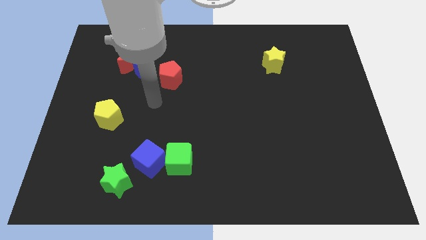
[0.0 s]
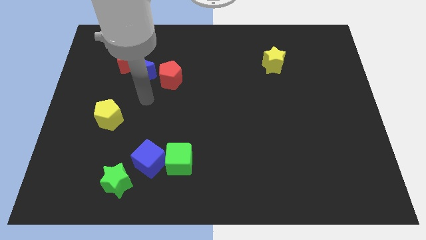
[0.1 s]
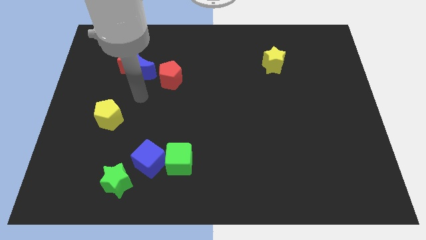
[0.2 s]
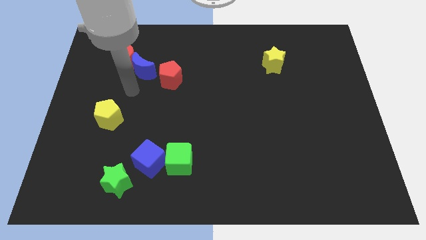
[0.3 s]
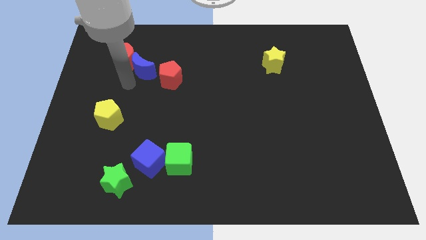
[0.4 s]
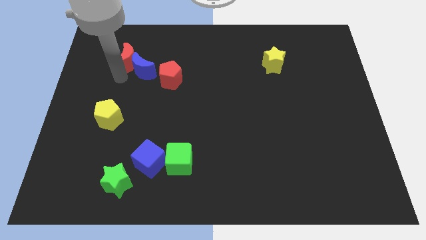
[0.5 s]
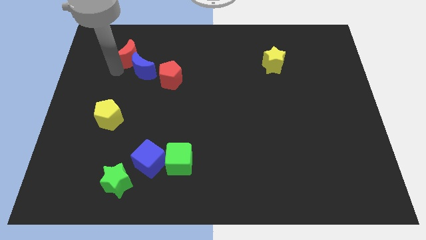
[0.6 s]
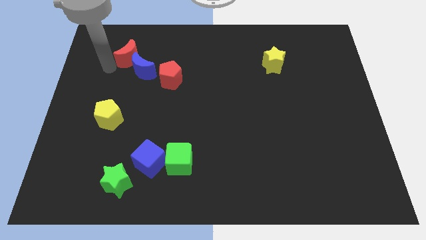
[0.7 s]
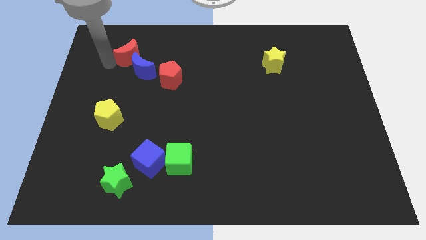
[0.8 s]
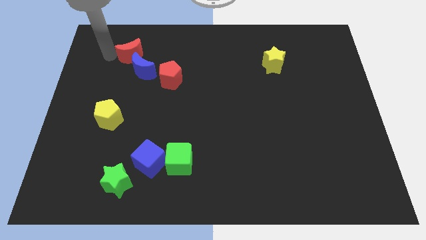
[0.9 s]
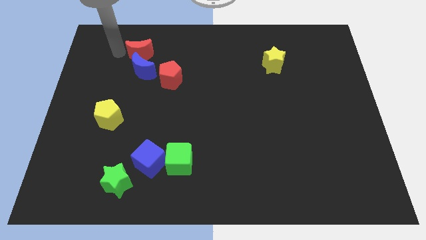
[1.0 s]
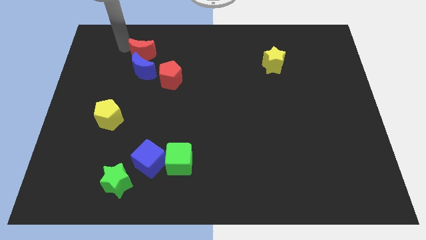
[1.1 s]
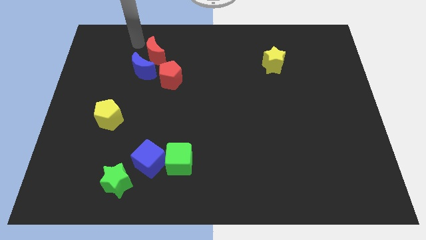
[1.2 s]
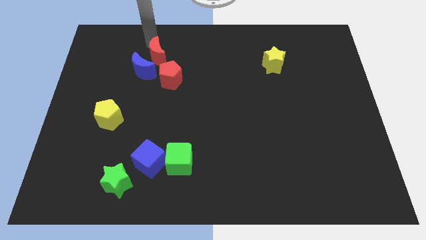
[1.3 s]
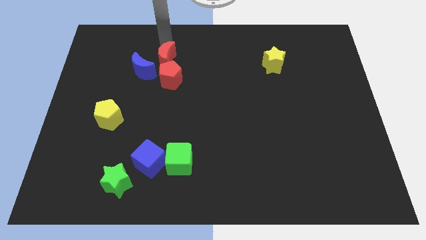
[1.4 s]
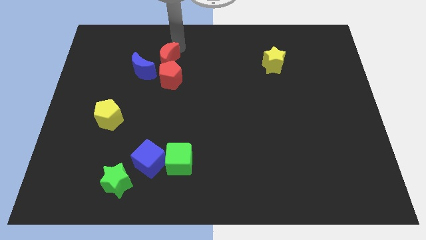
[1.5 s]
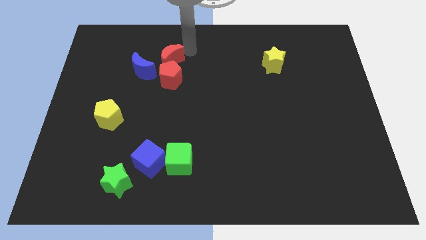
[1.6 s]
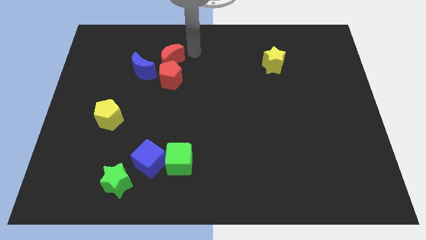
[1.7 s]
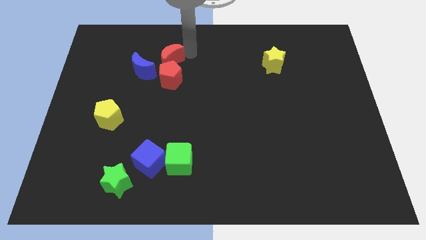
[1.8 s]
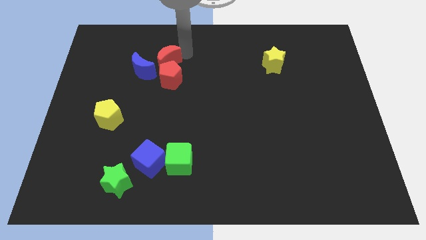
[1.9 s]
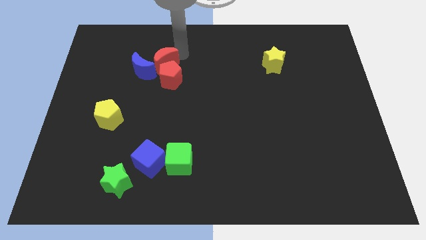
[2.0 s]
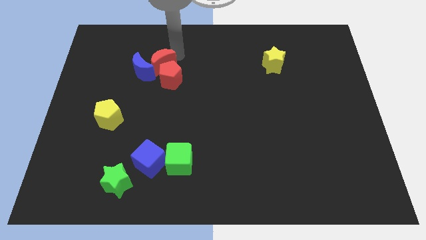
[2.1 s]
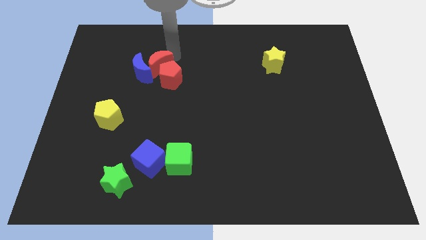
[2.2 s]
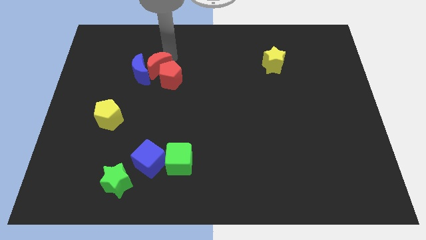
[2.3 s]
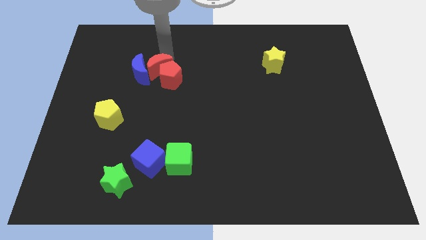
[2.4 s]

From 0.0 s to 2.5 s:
slide the red moon a little diagonally down and to the right

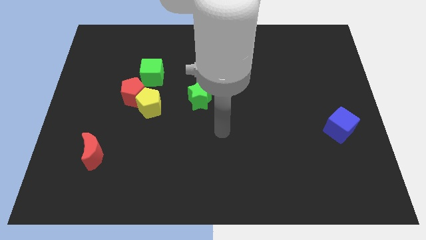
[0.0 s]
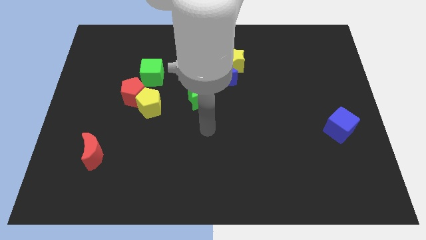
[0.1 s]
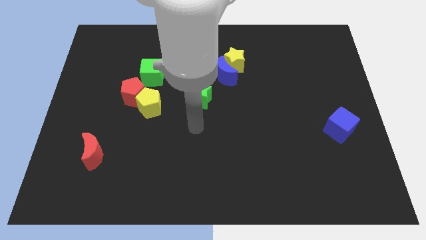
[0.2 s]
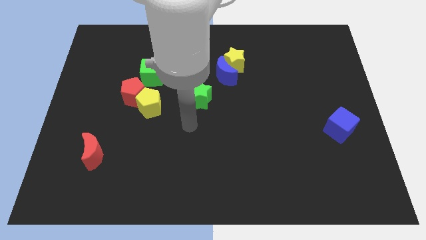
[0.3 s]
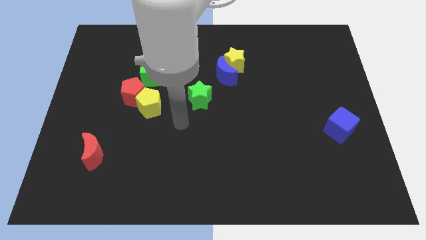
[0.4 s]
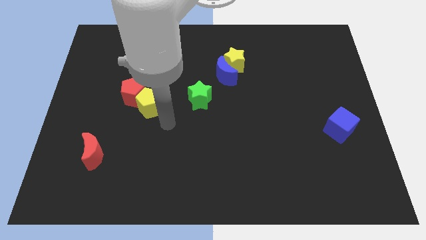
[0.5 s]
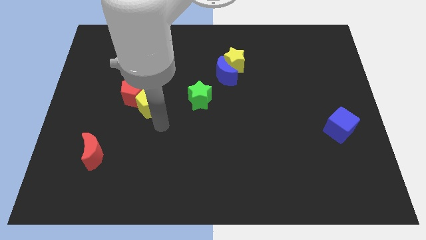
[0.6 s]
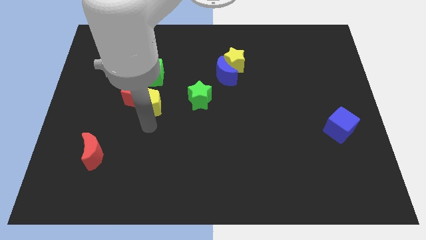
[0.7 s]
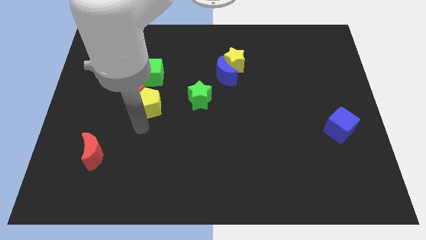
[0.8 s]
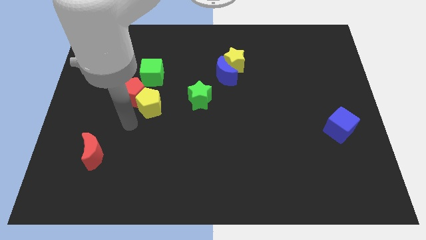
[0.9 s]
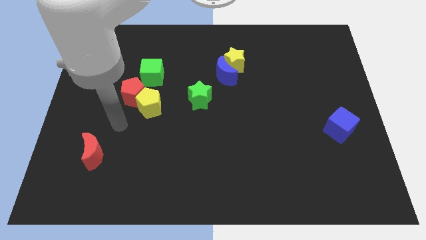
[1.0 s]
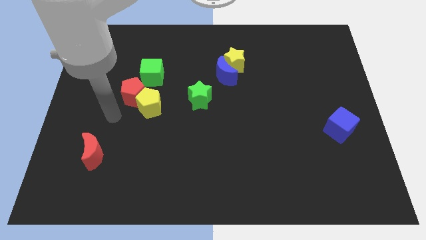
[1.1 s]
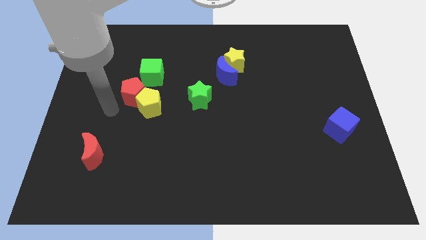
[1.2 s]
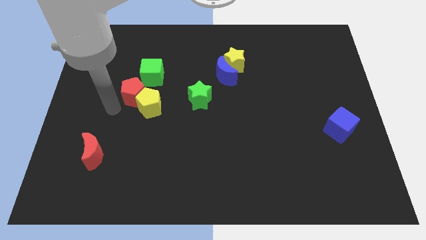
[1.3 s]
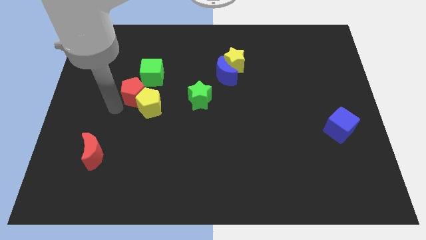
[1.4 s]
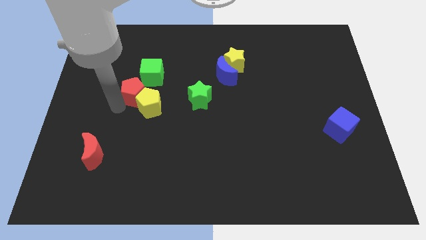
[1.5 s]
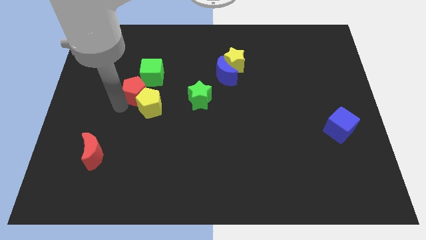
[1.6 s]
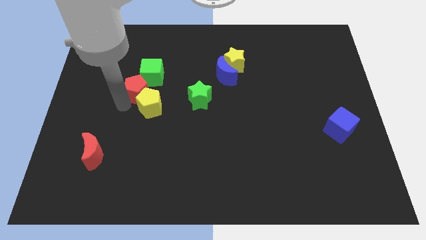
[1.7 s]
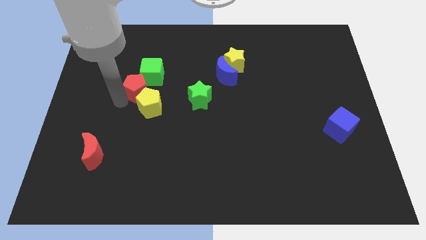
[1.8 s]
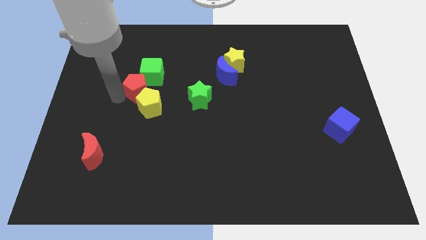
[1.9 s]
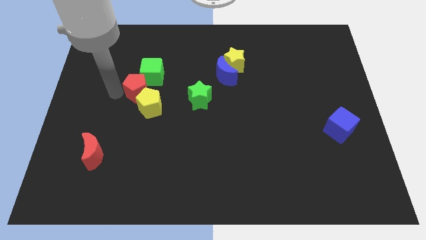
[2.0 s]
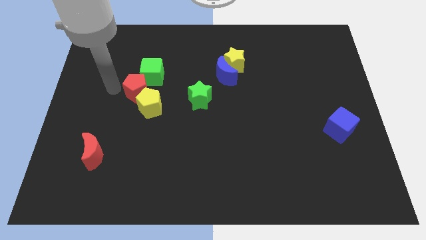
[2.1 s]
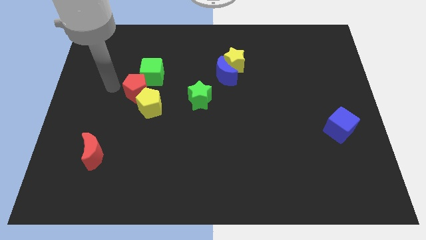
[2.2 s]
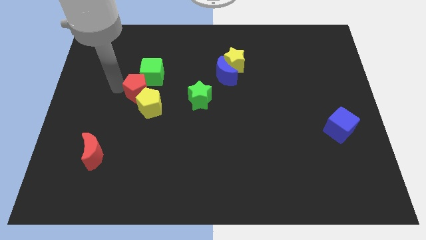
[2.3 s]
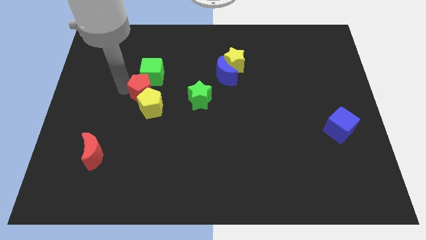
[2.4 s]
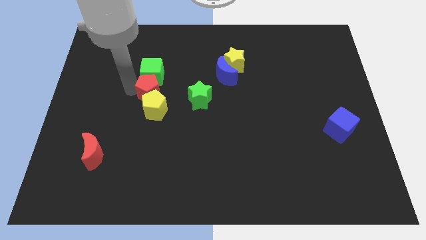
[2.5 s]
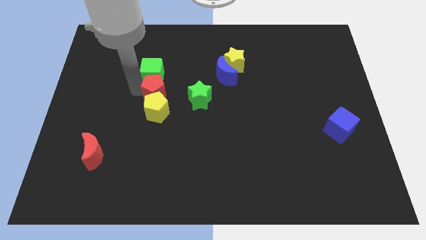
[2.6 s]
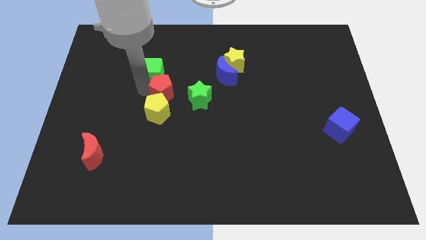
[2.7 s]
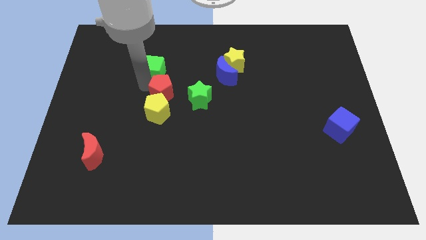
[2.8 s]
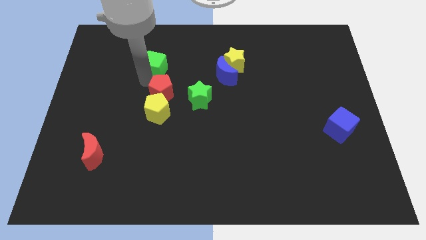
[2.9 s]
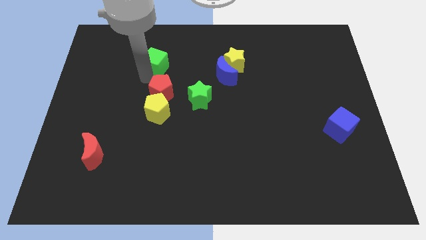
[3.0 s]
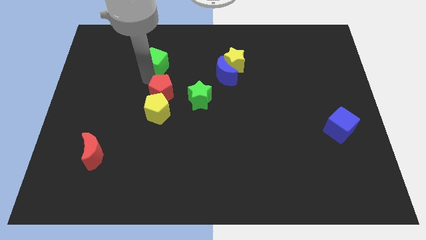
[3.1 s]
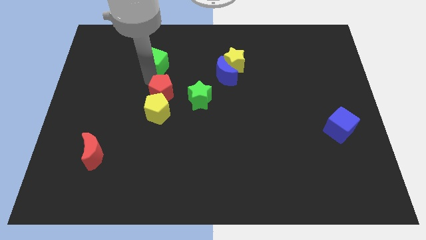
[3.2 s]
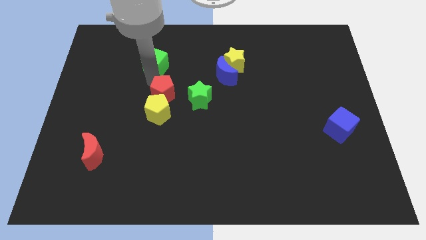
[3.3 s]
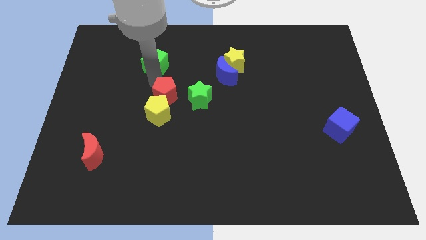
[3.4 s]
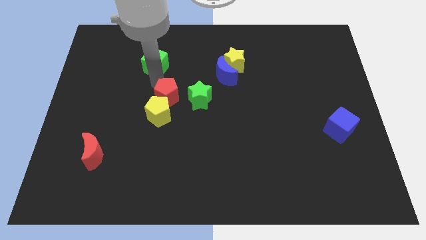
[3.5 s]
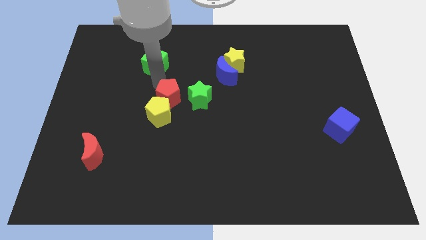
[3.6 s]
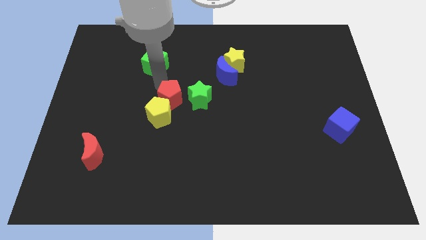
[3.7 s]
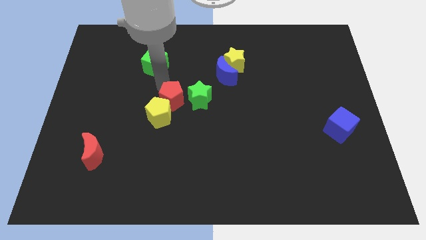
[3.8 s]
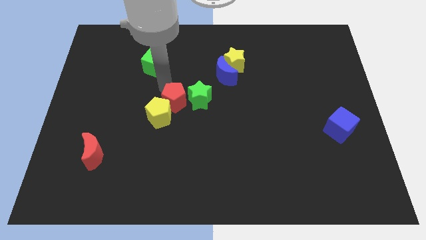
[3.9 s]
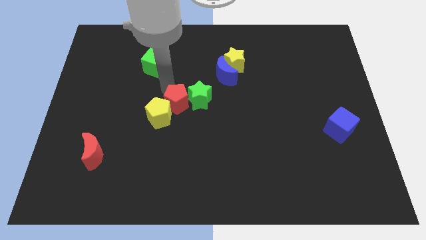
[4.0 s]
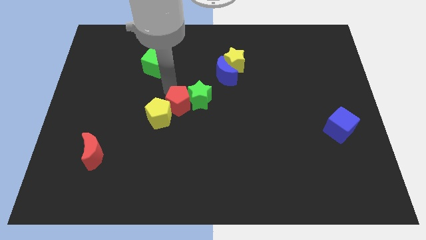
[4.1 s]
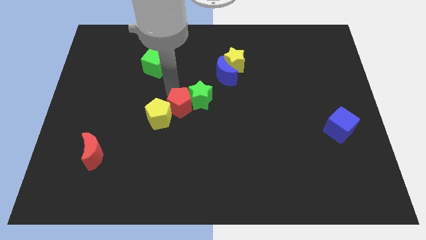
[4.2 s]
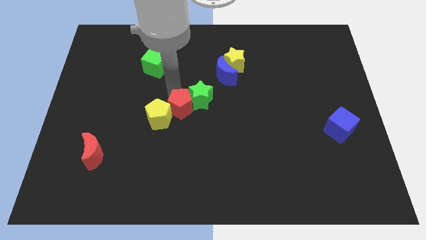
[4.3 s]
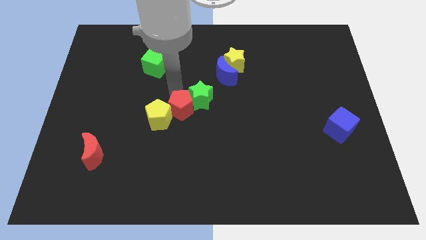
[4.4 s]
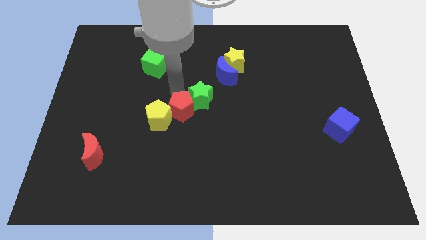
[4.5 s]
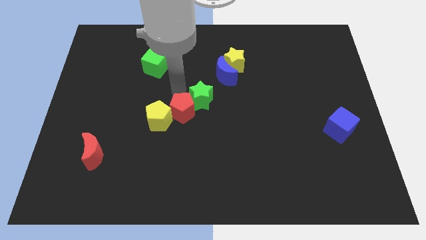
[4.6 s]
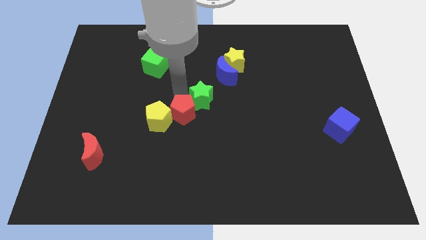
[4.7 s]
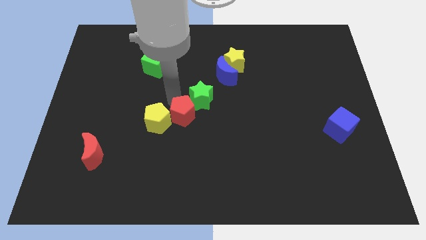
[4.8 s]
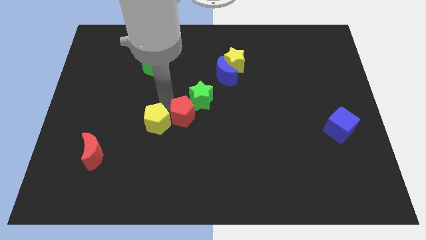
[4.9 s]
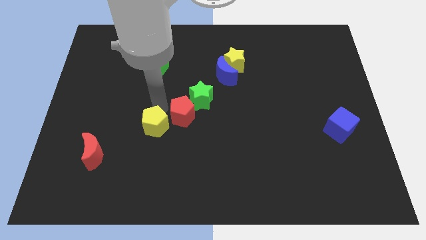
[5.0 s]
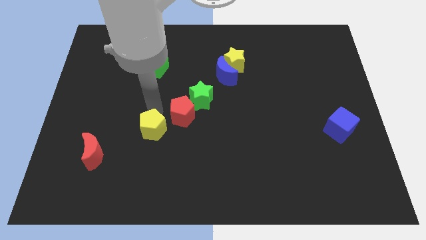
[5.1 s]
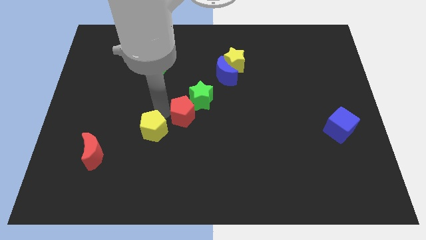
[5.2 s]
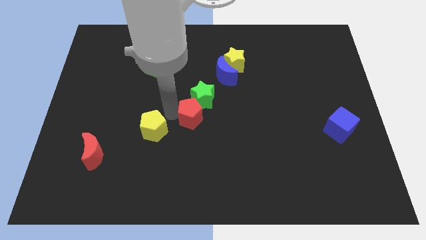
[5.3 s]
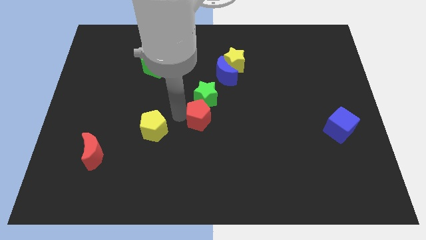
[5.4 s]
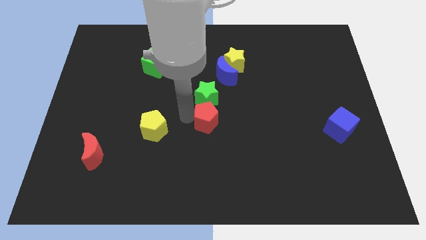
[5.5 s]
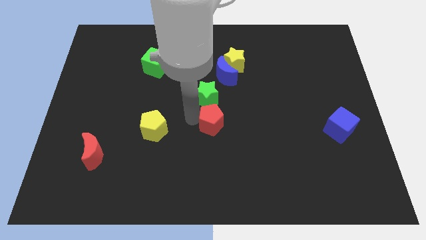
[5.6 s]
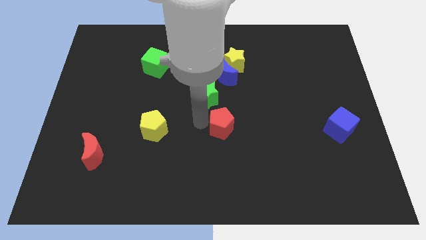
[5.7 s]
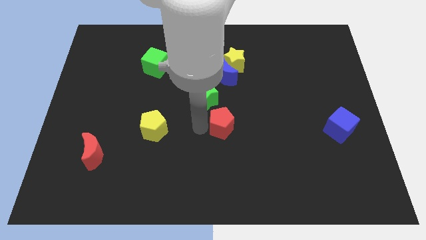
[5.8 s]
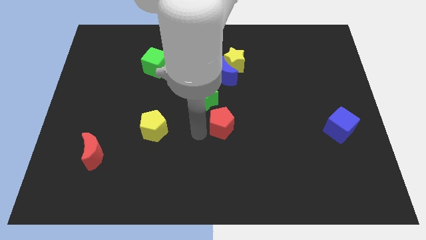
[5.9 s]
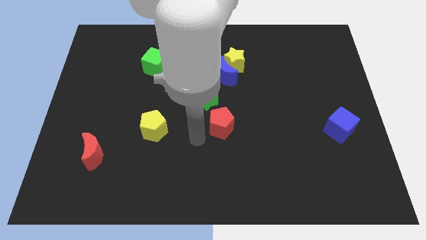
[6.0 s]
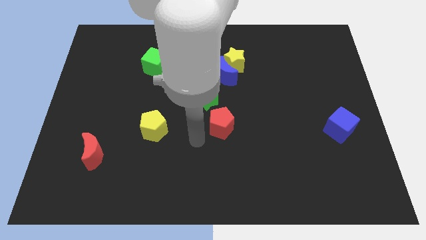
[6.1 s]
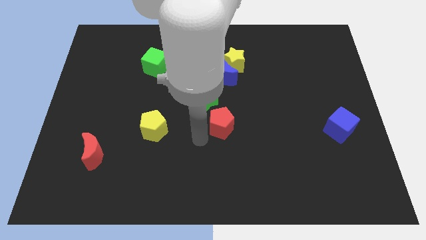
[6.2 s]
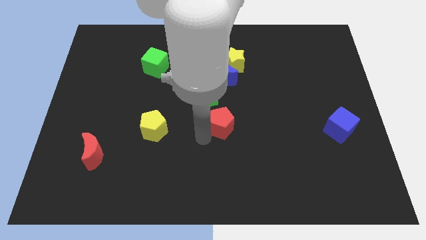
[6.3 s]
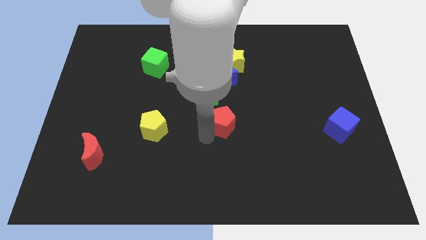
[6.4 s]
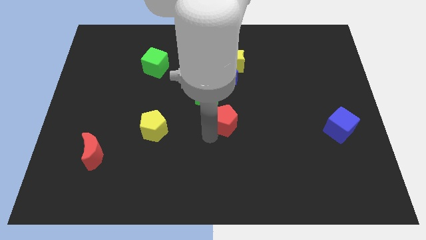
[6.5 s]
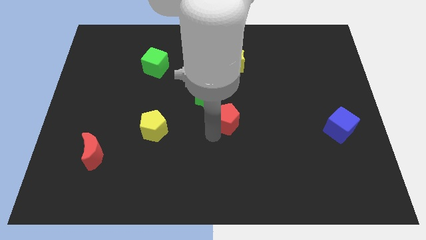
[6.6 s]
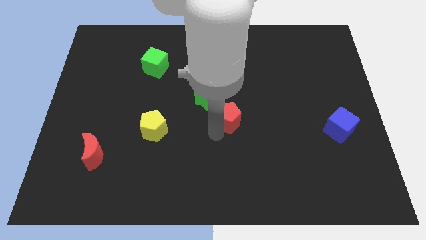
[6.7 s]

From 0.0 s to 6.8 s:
push the red pentagon to the right
